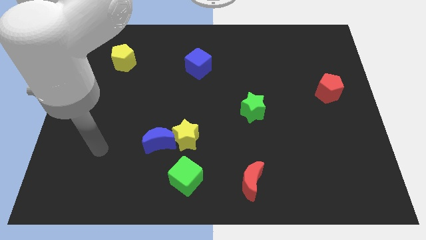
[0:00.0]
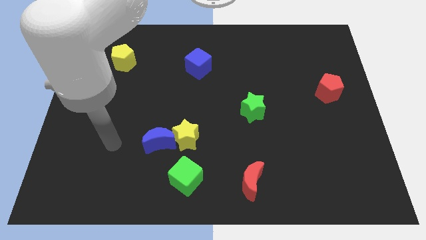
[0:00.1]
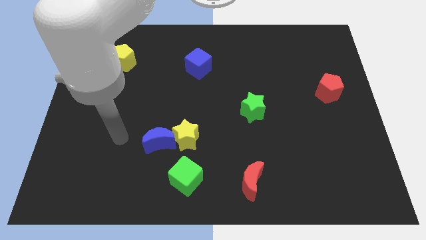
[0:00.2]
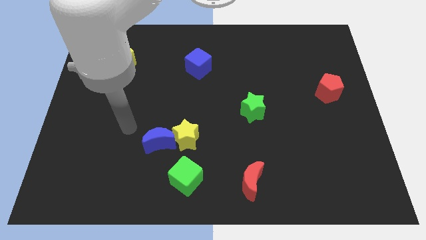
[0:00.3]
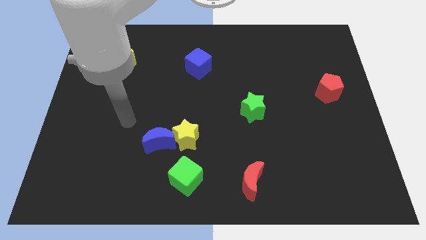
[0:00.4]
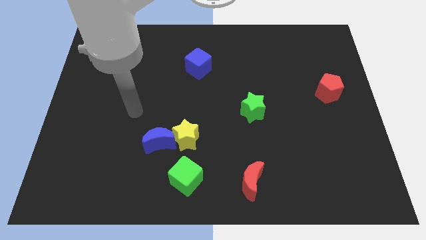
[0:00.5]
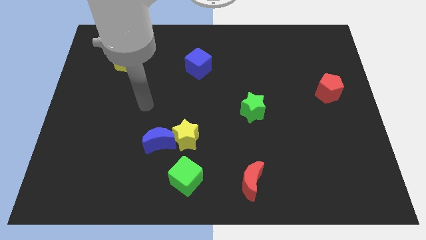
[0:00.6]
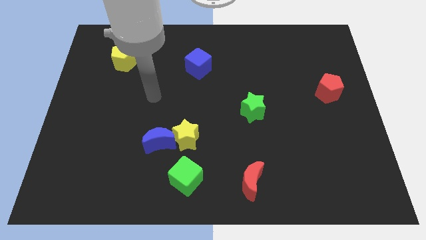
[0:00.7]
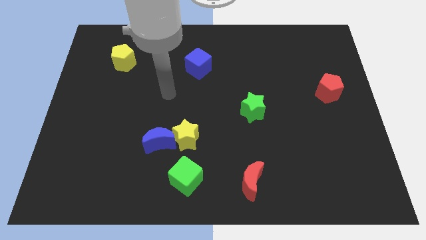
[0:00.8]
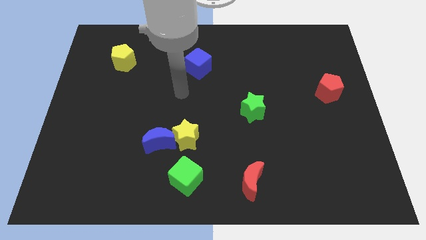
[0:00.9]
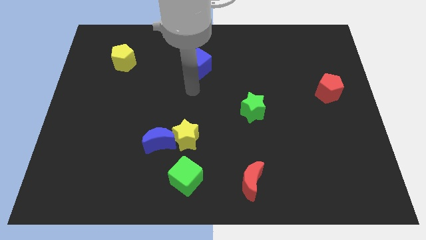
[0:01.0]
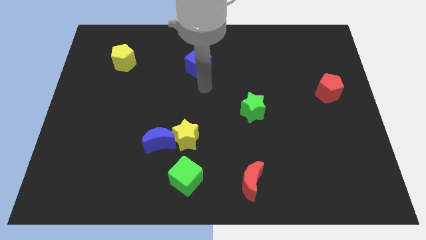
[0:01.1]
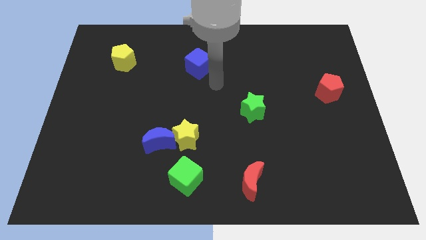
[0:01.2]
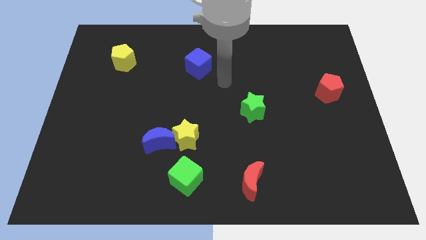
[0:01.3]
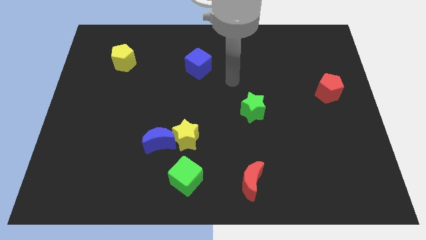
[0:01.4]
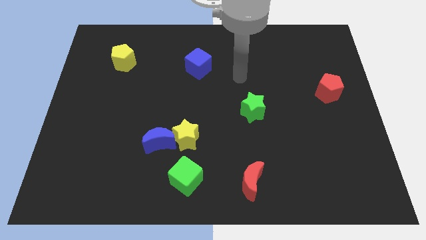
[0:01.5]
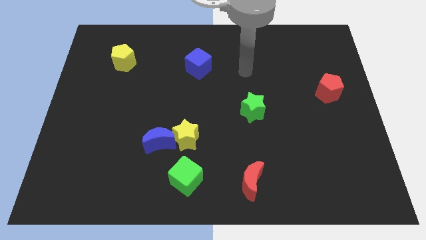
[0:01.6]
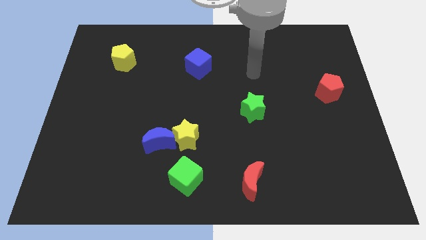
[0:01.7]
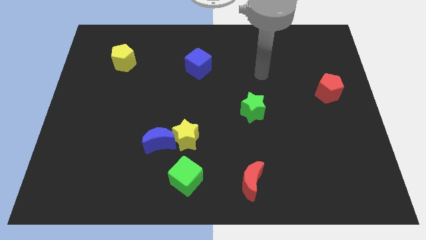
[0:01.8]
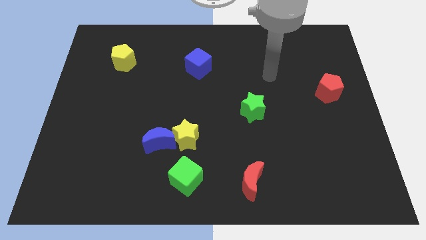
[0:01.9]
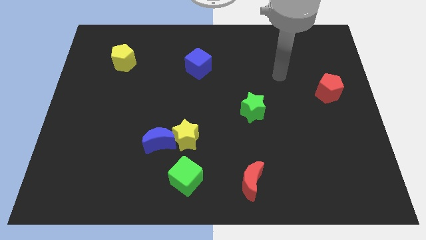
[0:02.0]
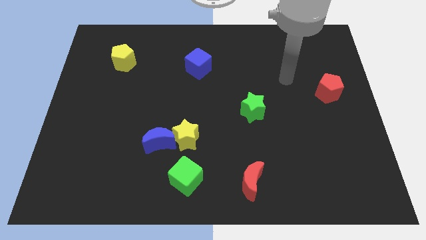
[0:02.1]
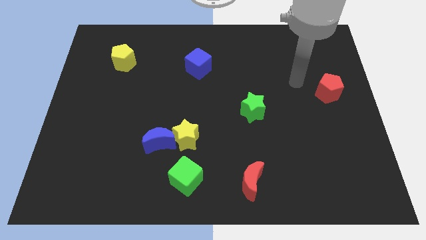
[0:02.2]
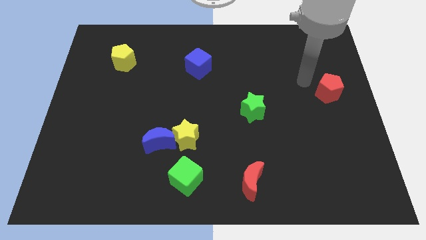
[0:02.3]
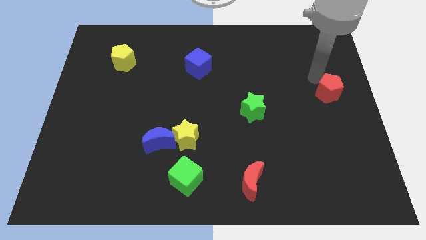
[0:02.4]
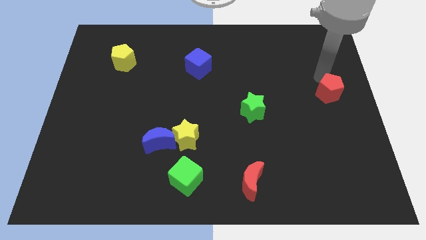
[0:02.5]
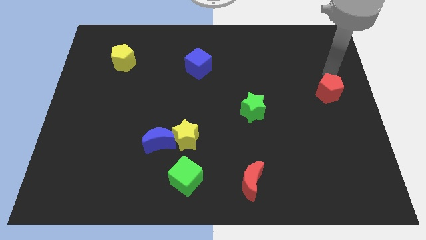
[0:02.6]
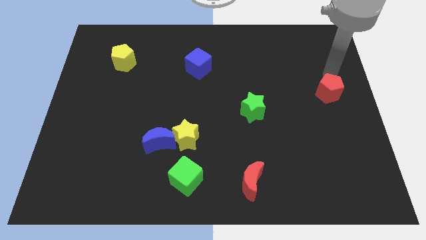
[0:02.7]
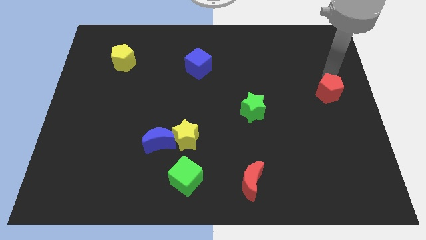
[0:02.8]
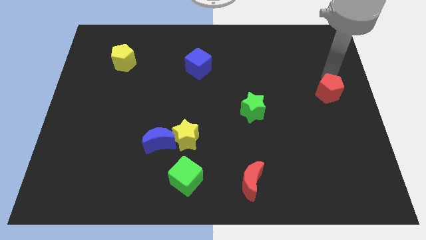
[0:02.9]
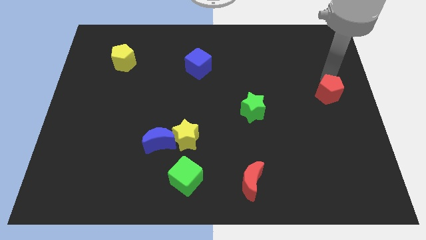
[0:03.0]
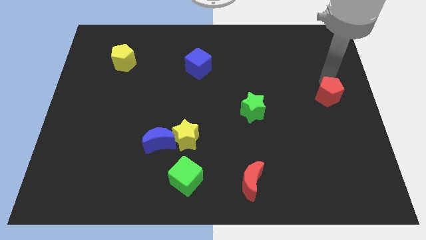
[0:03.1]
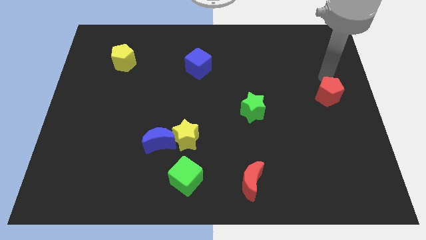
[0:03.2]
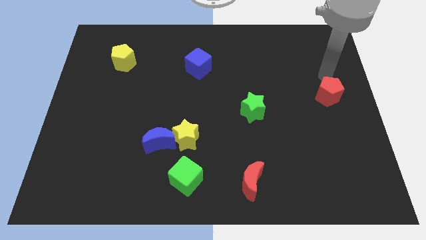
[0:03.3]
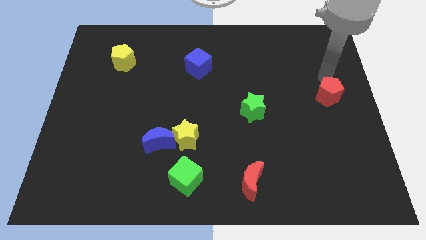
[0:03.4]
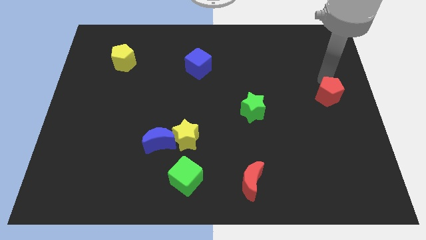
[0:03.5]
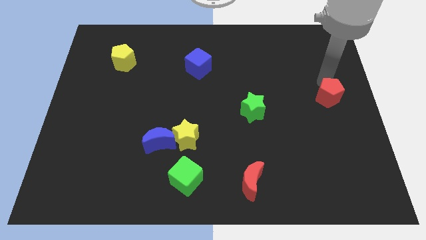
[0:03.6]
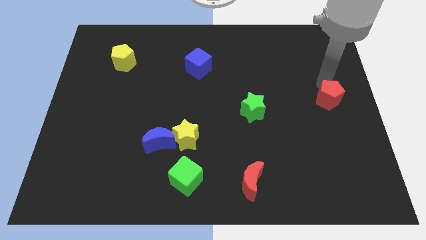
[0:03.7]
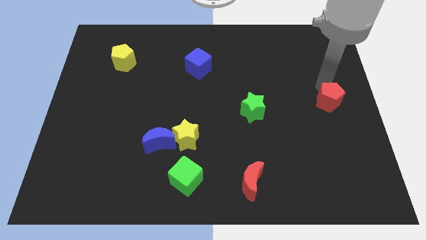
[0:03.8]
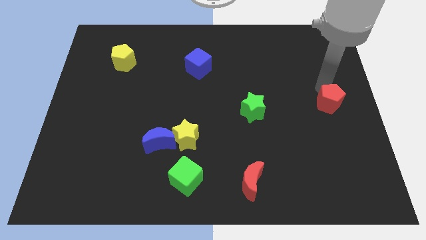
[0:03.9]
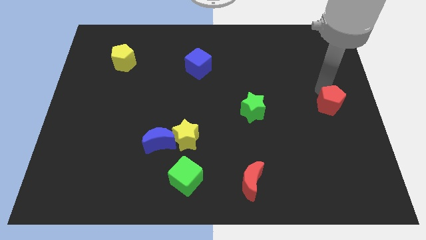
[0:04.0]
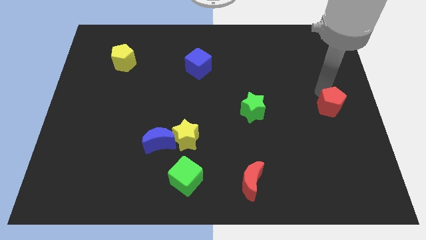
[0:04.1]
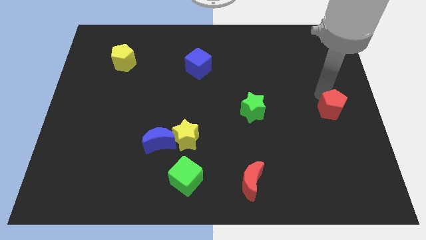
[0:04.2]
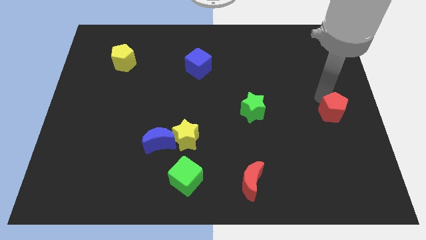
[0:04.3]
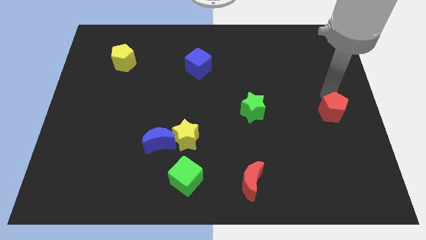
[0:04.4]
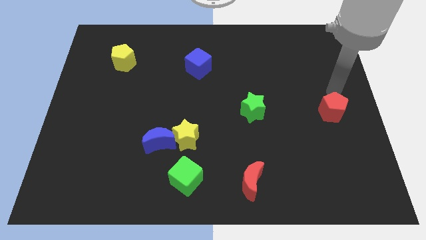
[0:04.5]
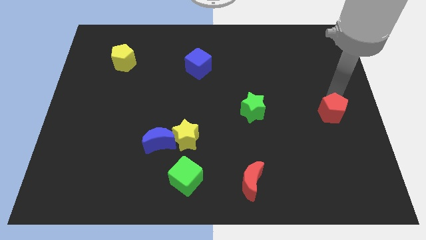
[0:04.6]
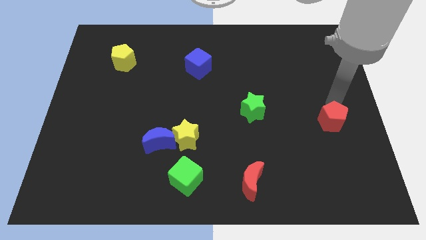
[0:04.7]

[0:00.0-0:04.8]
push the red pentagon a little bit downwards

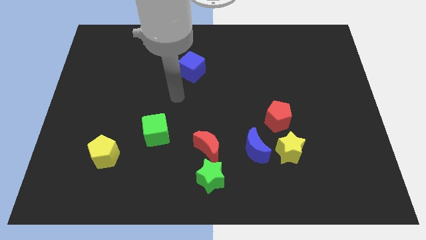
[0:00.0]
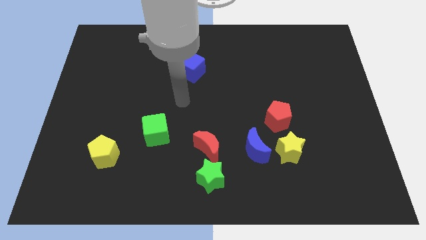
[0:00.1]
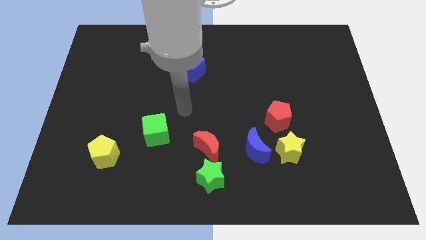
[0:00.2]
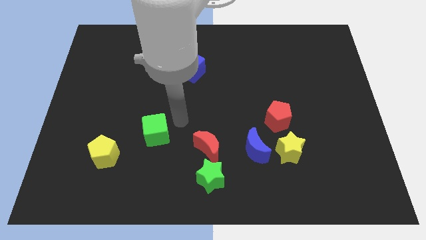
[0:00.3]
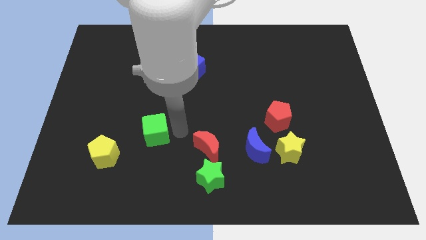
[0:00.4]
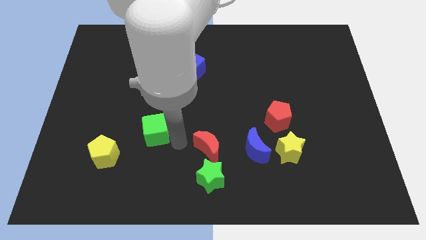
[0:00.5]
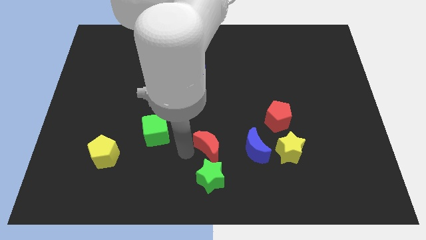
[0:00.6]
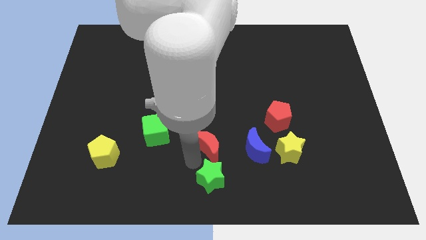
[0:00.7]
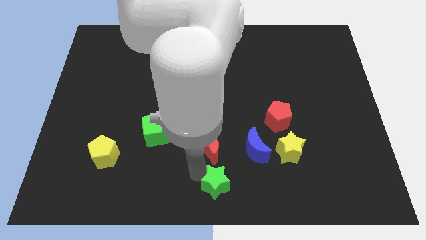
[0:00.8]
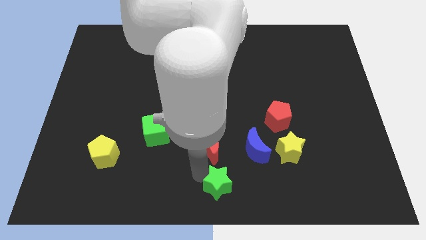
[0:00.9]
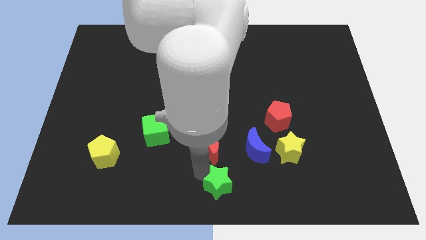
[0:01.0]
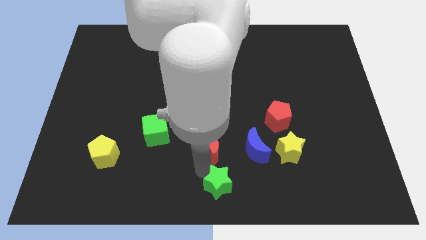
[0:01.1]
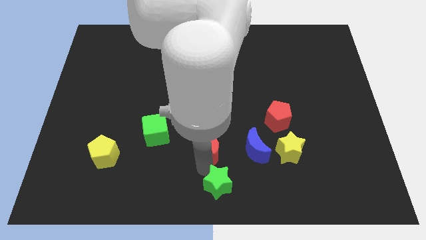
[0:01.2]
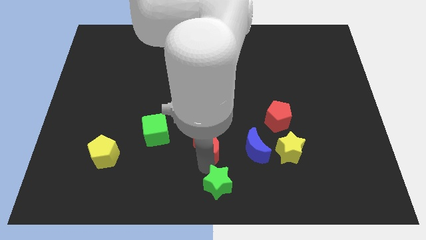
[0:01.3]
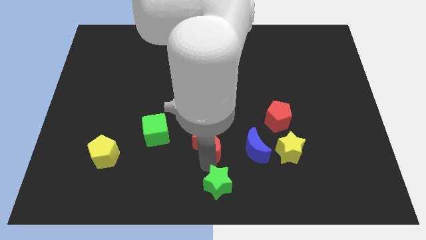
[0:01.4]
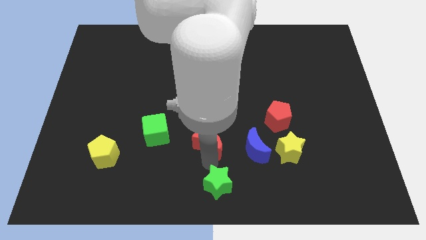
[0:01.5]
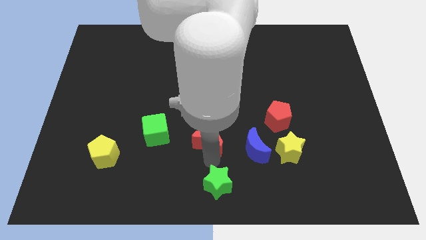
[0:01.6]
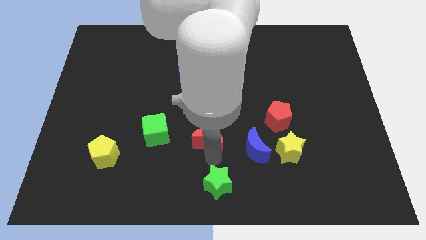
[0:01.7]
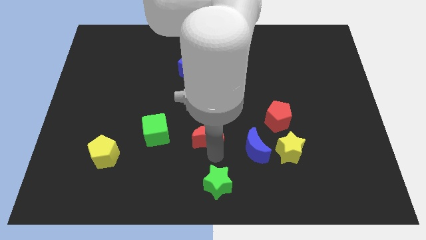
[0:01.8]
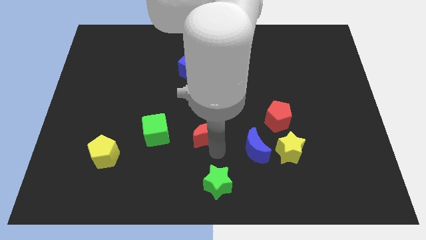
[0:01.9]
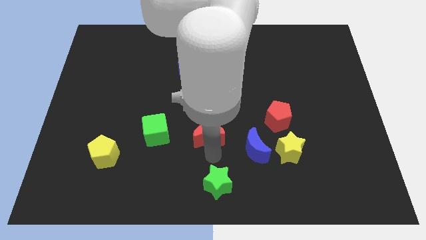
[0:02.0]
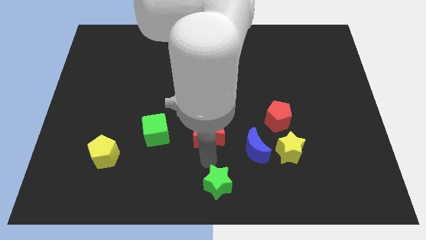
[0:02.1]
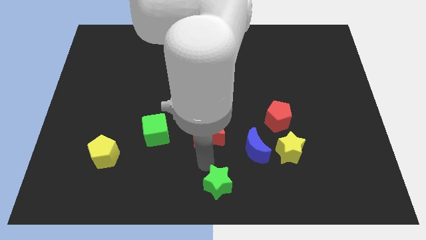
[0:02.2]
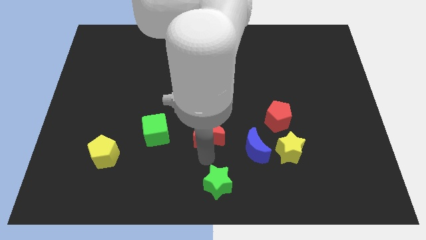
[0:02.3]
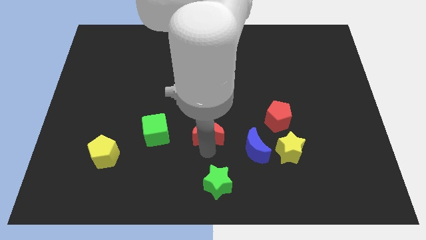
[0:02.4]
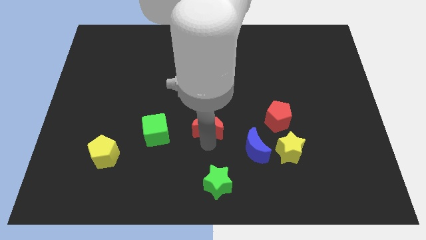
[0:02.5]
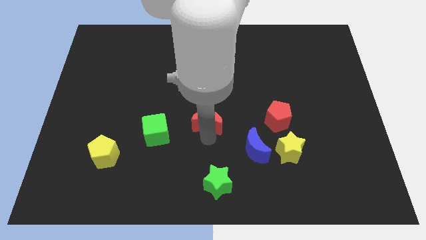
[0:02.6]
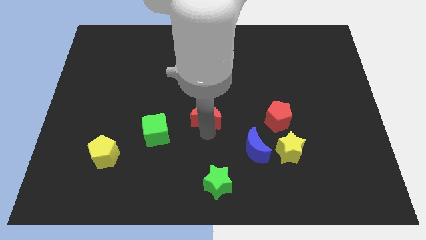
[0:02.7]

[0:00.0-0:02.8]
slide the red moon up a little bit
